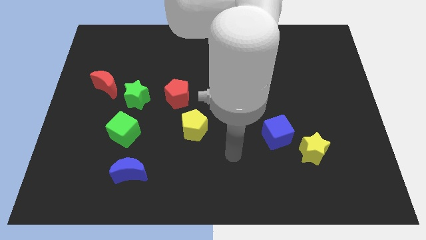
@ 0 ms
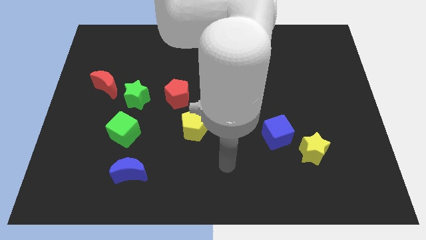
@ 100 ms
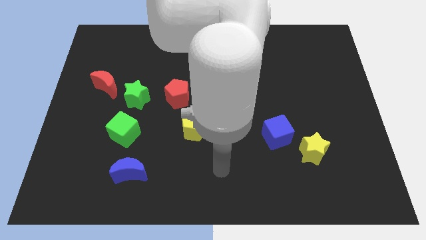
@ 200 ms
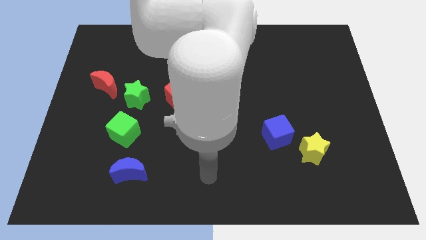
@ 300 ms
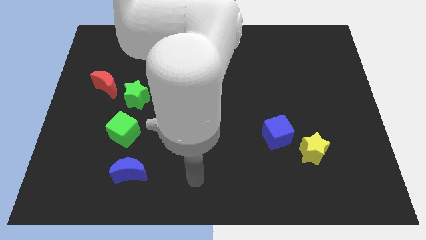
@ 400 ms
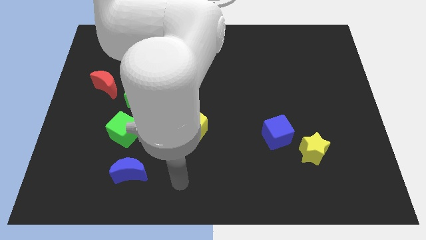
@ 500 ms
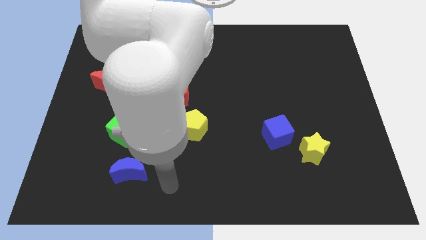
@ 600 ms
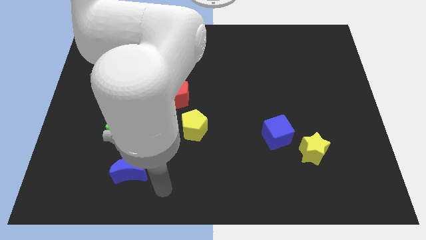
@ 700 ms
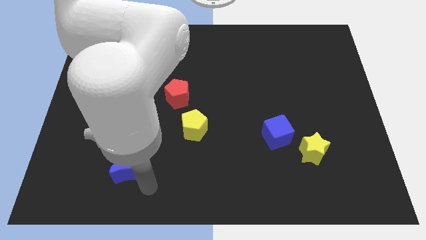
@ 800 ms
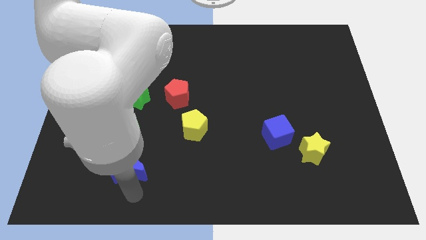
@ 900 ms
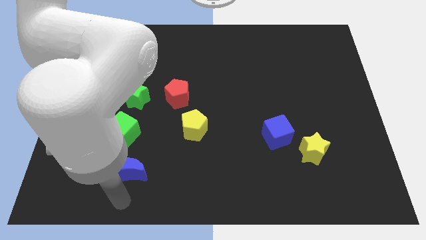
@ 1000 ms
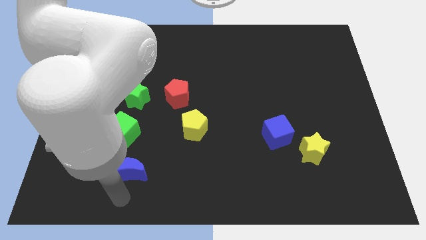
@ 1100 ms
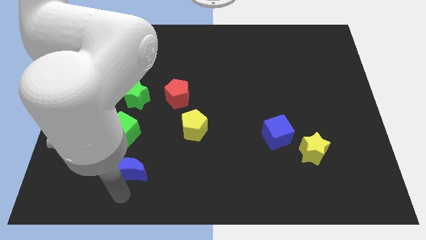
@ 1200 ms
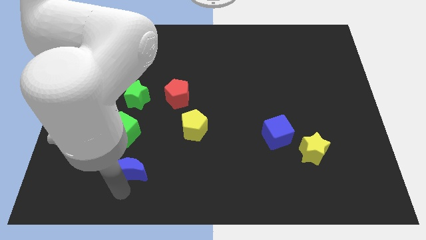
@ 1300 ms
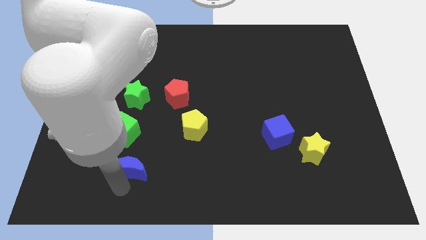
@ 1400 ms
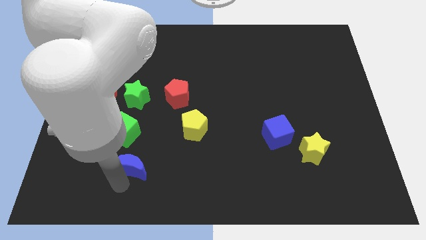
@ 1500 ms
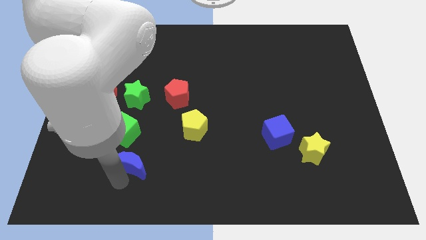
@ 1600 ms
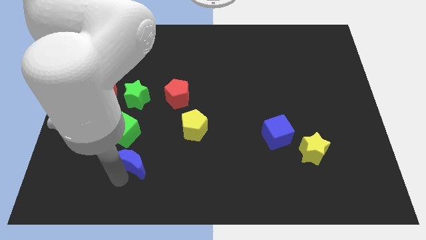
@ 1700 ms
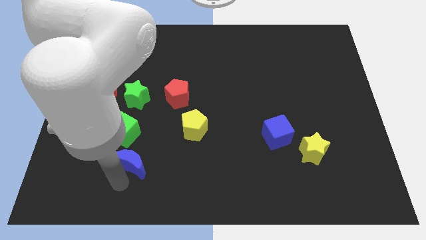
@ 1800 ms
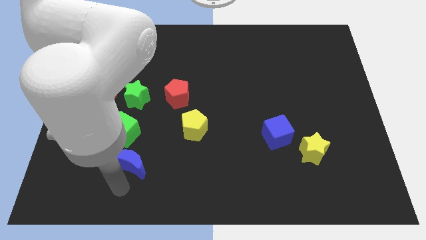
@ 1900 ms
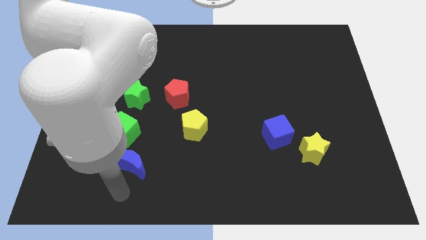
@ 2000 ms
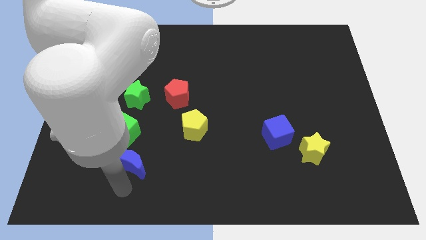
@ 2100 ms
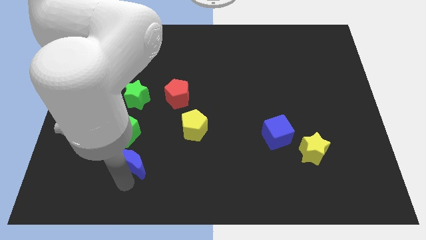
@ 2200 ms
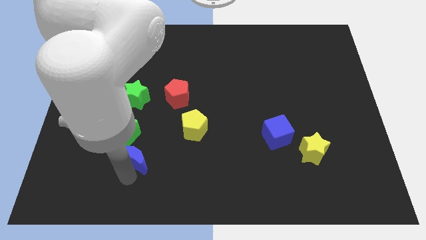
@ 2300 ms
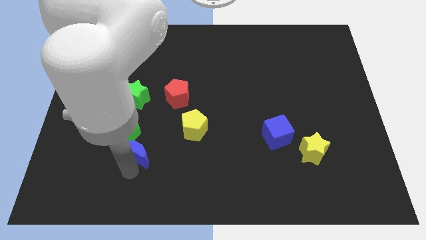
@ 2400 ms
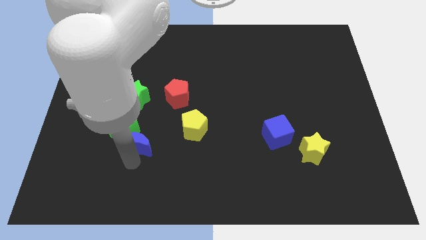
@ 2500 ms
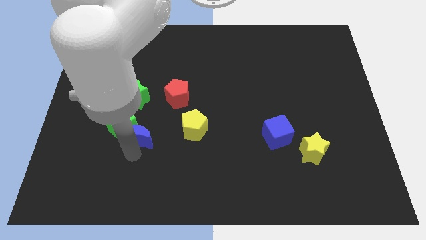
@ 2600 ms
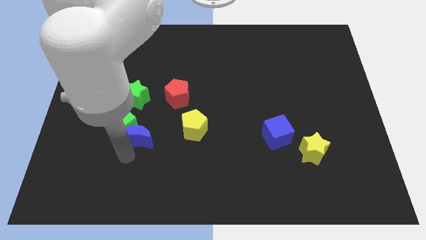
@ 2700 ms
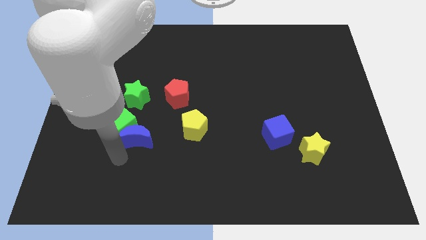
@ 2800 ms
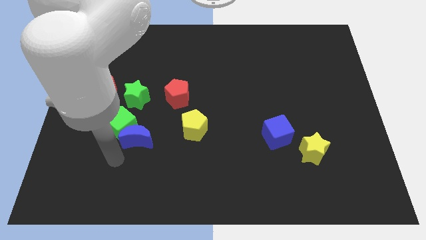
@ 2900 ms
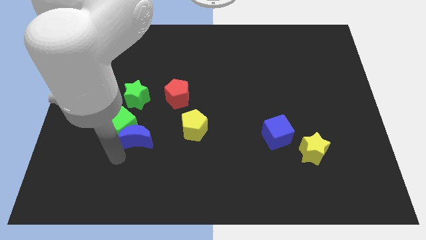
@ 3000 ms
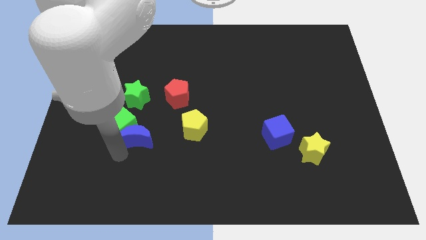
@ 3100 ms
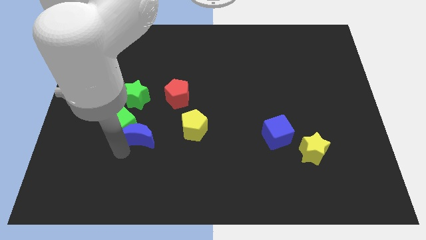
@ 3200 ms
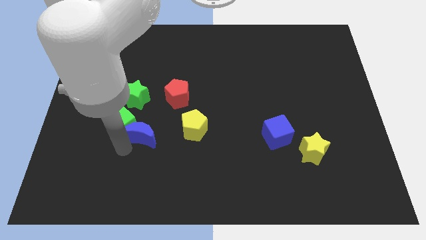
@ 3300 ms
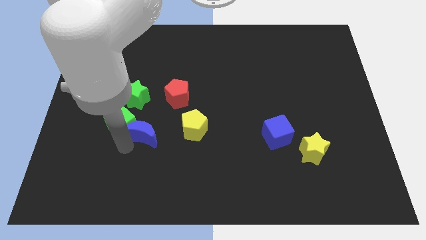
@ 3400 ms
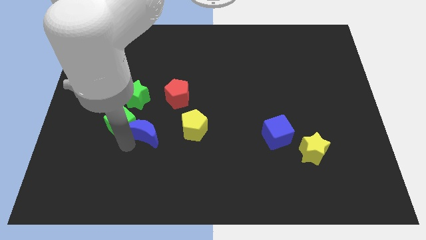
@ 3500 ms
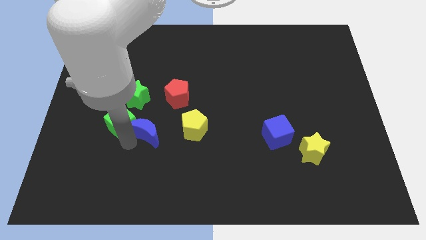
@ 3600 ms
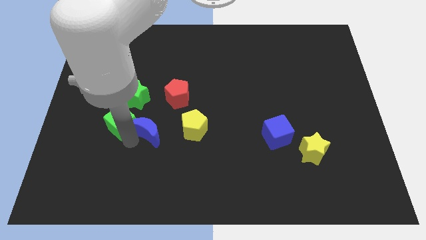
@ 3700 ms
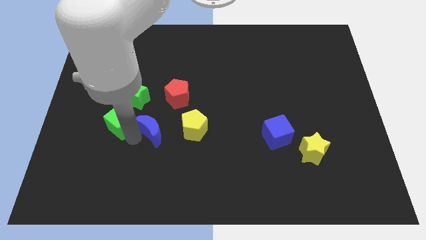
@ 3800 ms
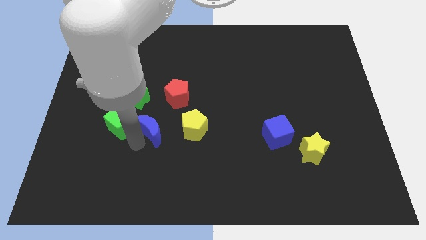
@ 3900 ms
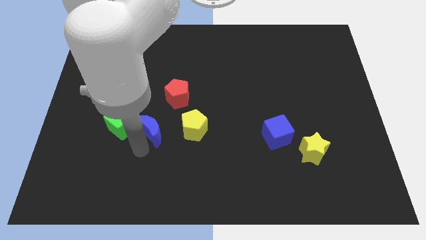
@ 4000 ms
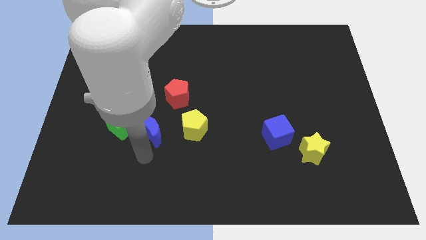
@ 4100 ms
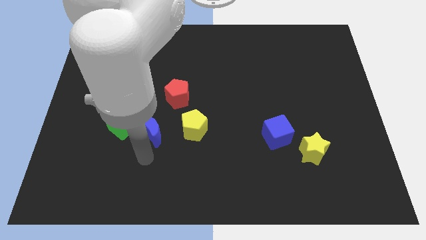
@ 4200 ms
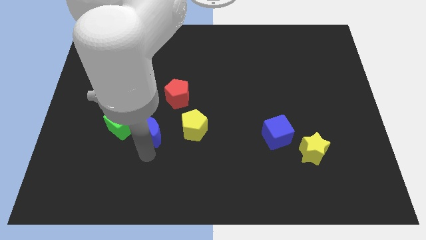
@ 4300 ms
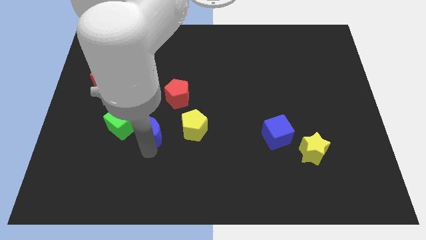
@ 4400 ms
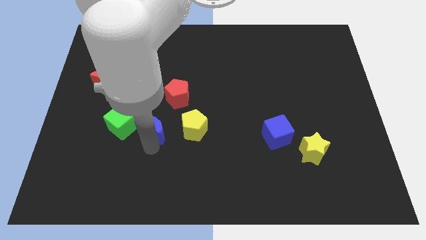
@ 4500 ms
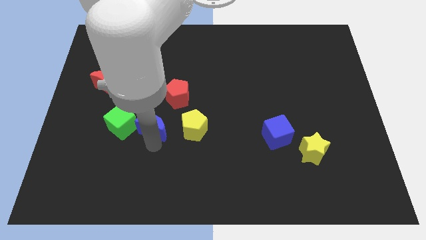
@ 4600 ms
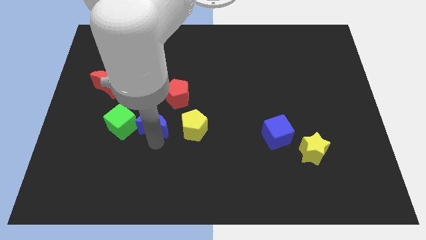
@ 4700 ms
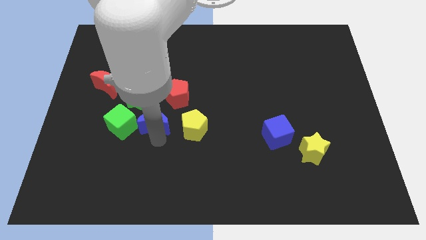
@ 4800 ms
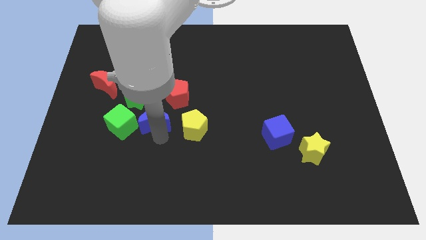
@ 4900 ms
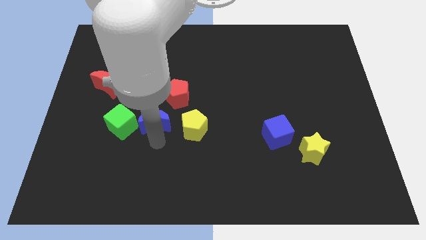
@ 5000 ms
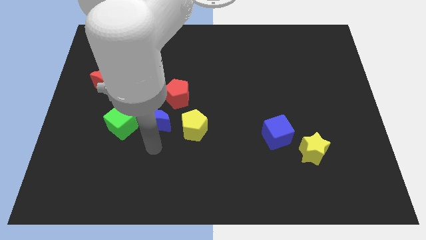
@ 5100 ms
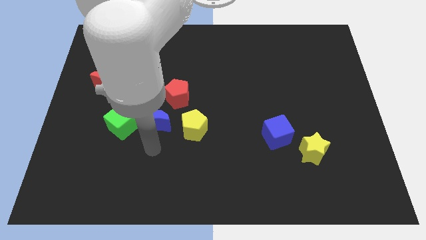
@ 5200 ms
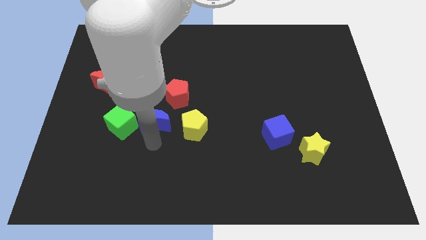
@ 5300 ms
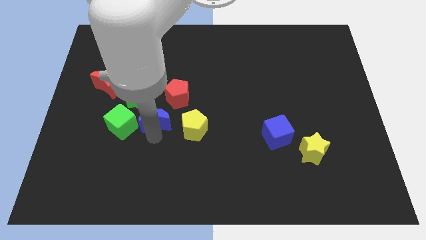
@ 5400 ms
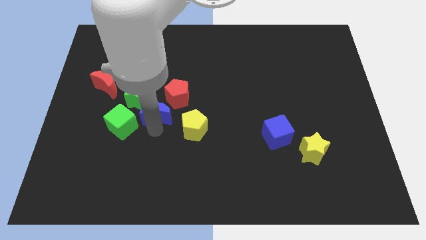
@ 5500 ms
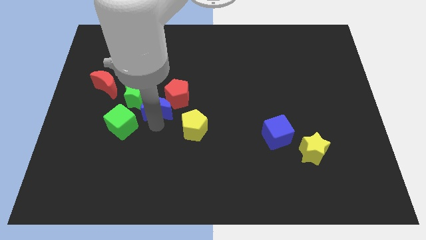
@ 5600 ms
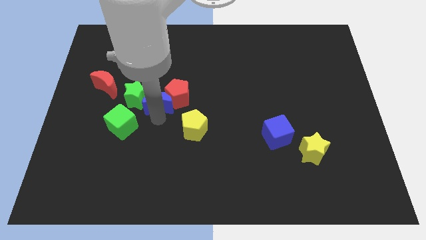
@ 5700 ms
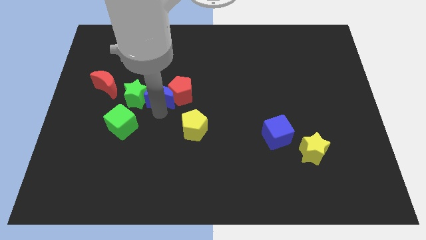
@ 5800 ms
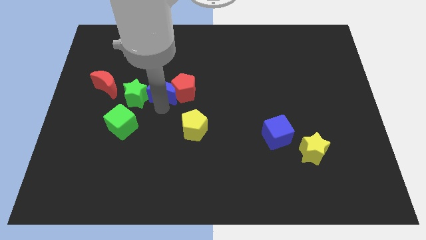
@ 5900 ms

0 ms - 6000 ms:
slide the blue moon up

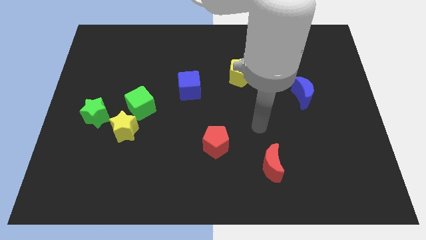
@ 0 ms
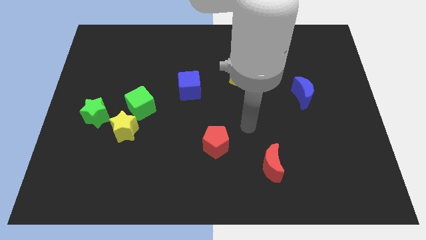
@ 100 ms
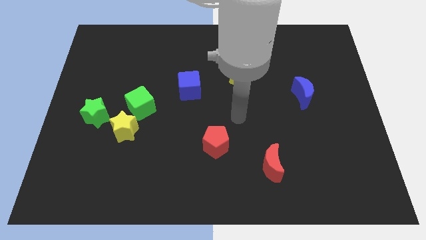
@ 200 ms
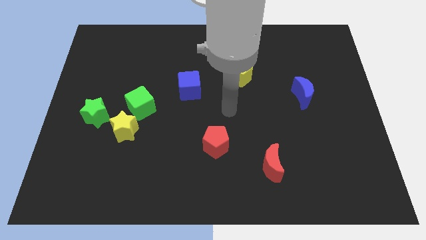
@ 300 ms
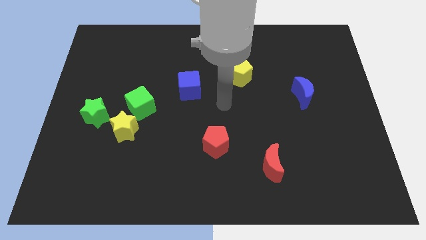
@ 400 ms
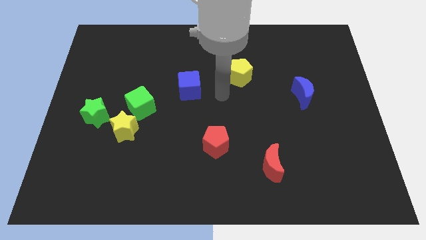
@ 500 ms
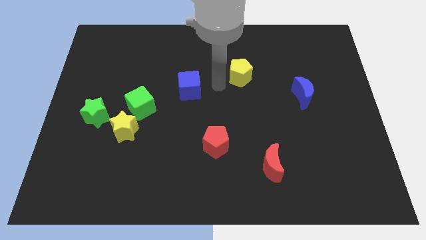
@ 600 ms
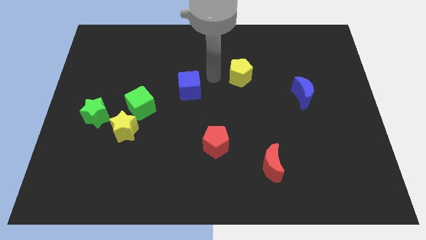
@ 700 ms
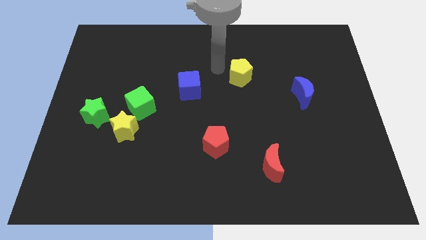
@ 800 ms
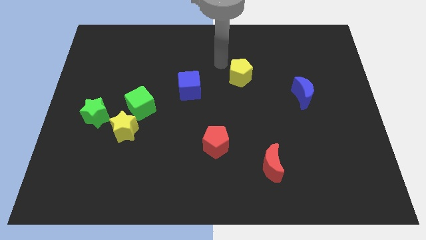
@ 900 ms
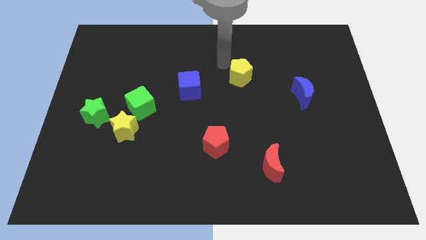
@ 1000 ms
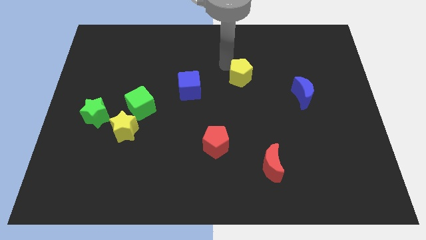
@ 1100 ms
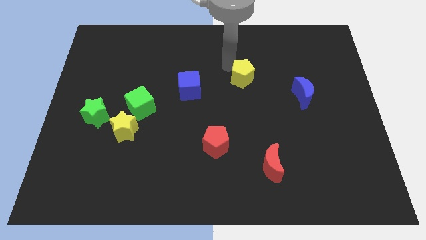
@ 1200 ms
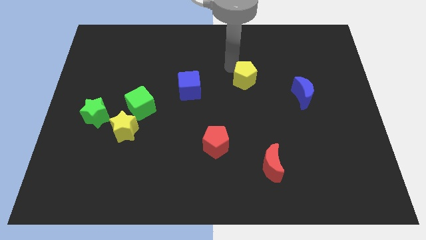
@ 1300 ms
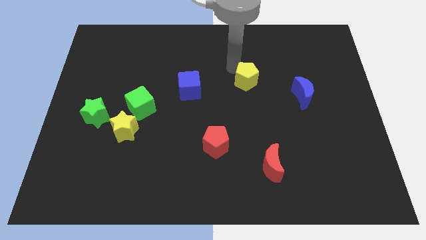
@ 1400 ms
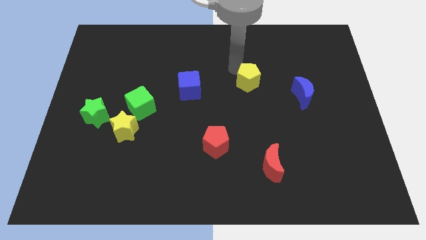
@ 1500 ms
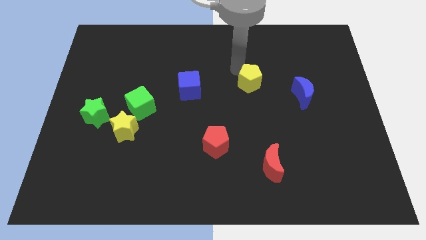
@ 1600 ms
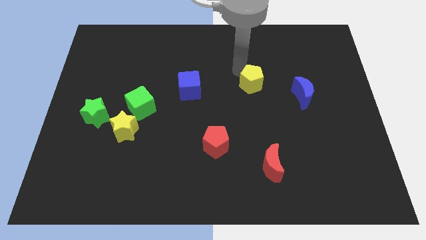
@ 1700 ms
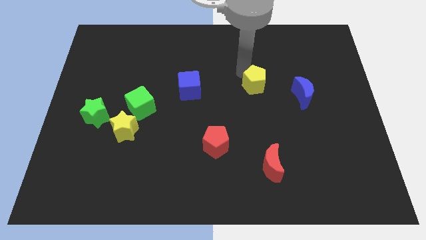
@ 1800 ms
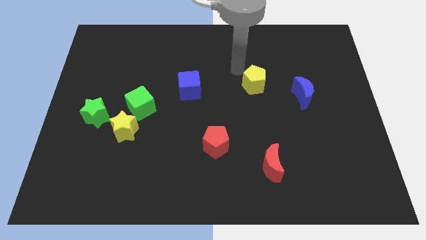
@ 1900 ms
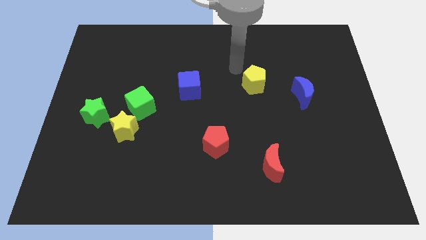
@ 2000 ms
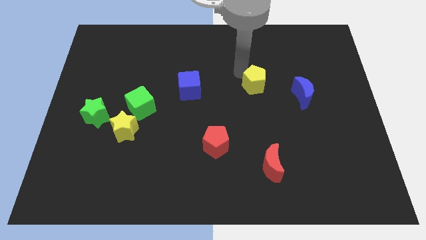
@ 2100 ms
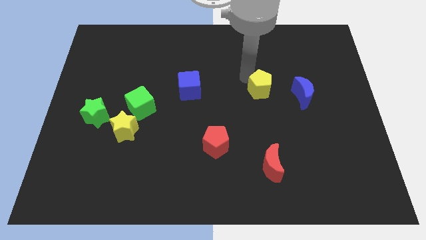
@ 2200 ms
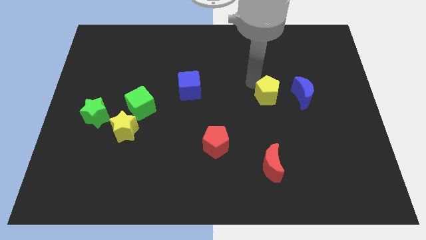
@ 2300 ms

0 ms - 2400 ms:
push the yellow pentagon diagonally down and right a bit

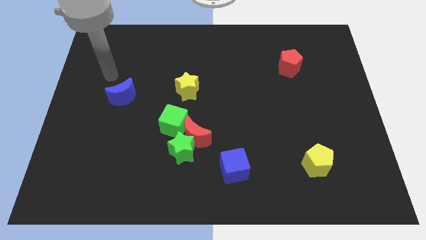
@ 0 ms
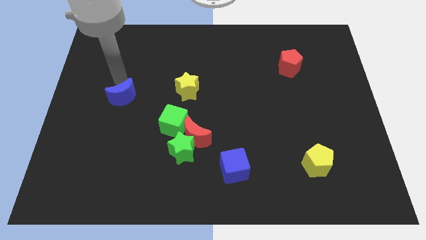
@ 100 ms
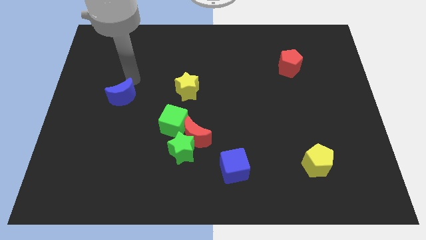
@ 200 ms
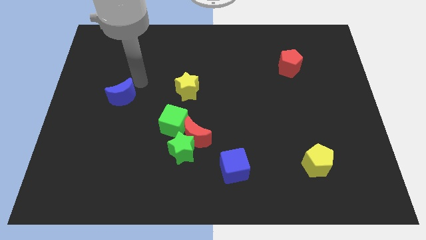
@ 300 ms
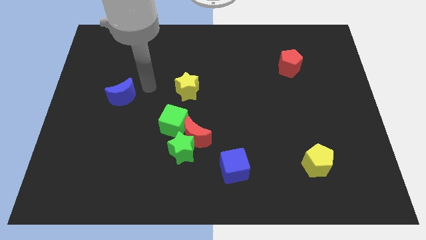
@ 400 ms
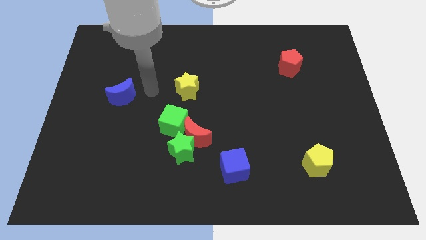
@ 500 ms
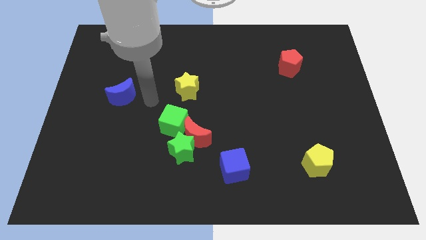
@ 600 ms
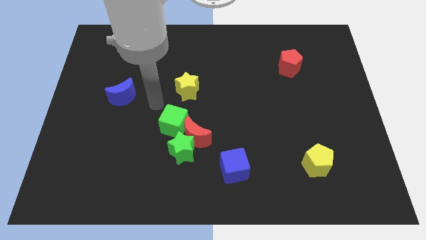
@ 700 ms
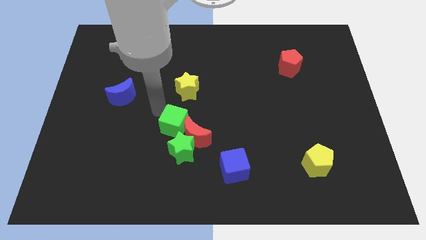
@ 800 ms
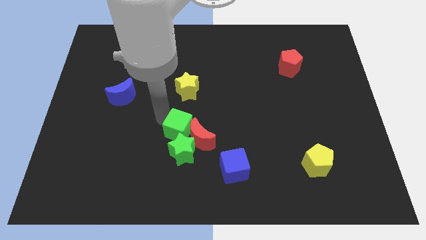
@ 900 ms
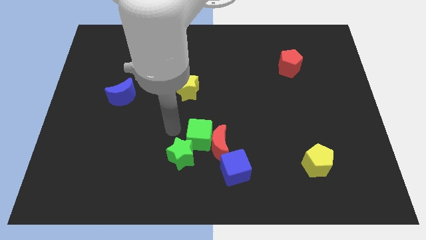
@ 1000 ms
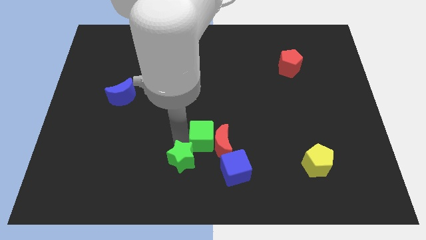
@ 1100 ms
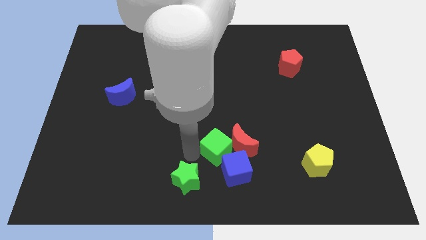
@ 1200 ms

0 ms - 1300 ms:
push the red moon right slightly
